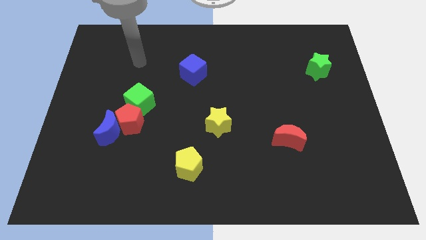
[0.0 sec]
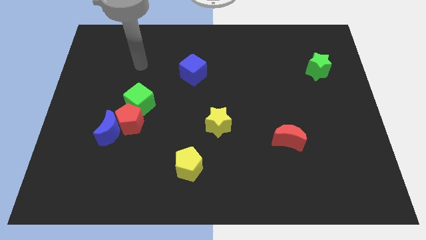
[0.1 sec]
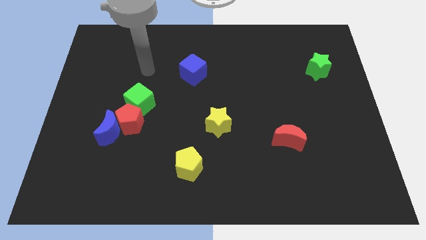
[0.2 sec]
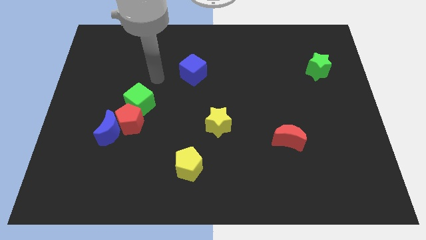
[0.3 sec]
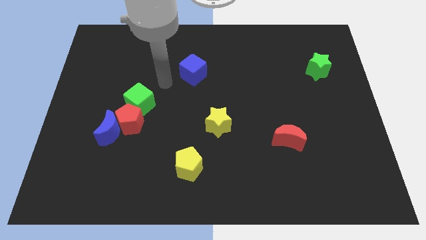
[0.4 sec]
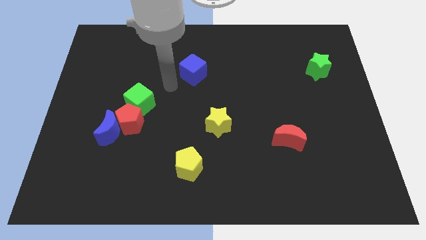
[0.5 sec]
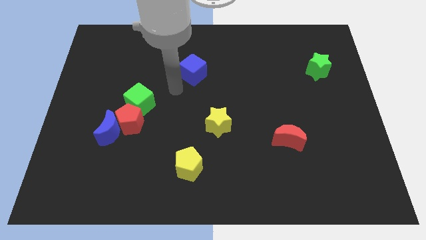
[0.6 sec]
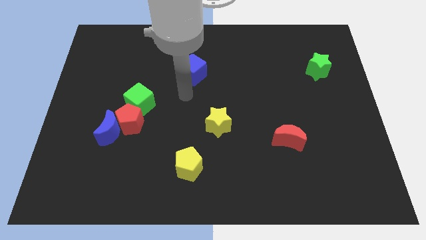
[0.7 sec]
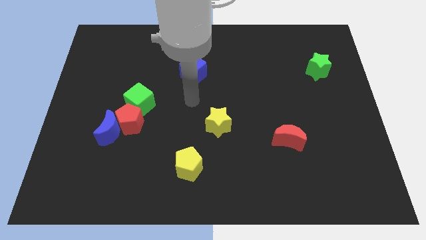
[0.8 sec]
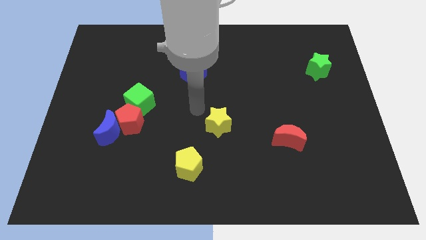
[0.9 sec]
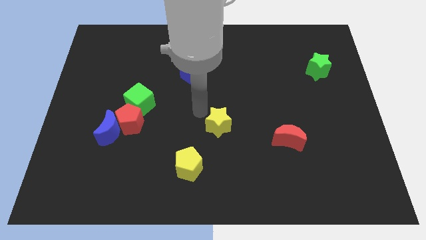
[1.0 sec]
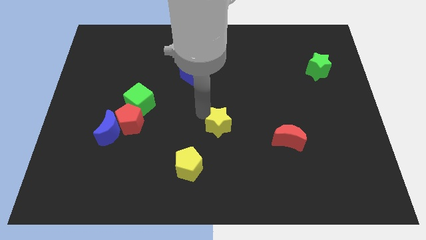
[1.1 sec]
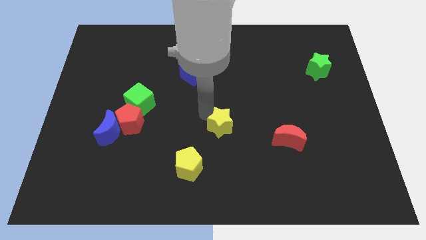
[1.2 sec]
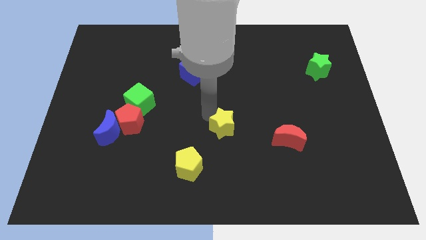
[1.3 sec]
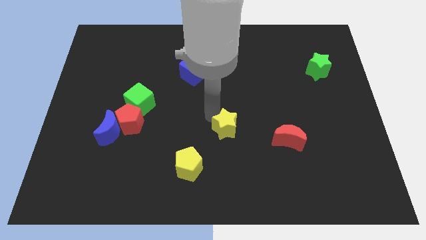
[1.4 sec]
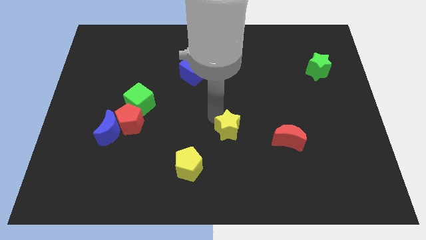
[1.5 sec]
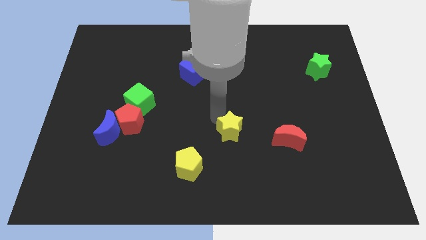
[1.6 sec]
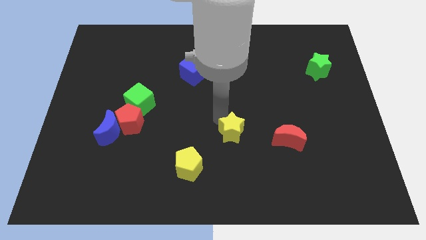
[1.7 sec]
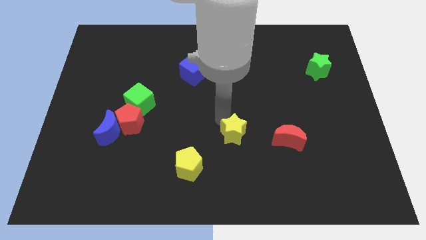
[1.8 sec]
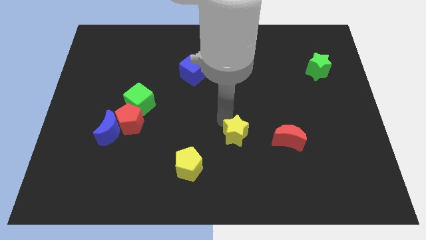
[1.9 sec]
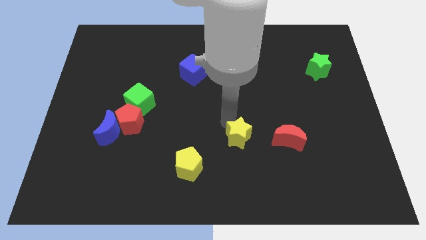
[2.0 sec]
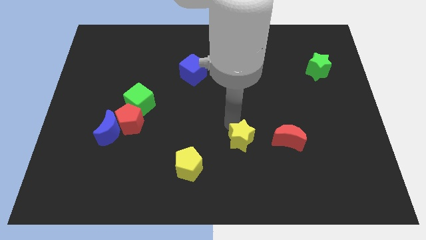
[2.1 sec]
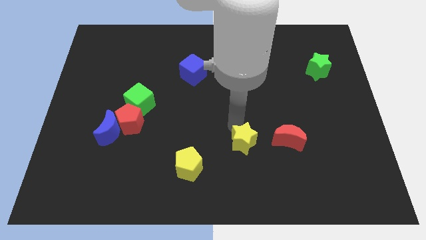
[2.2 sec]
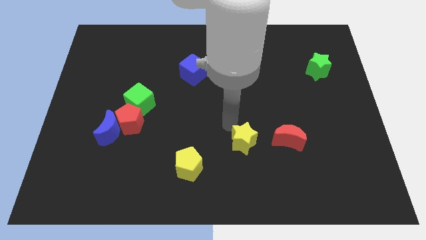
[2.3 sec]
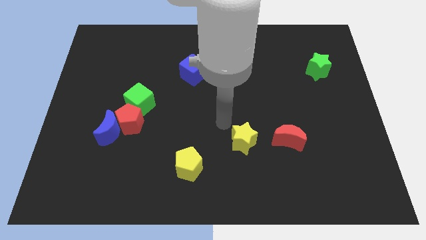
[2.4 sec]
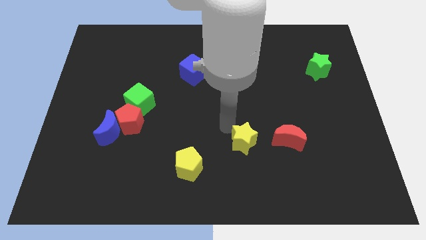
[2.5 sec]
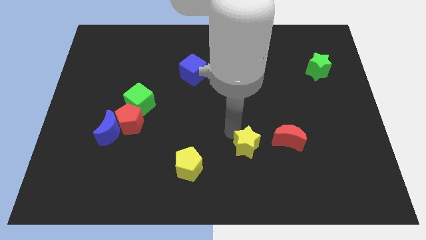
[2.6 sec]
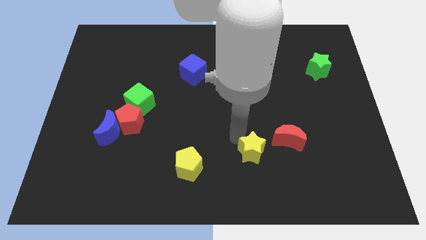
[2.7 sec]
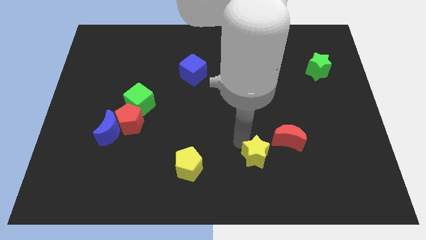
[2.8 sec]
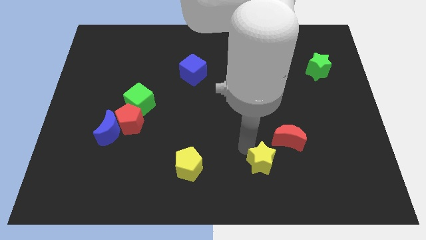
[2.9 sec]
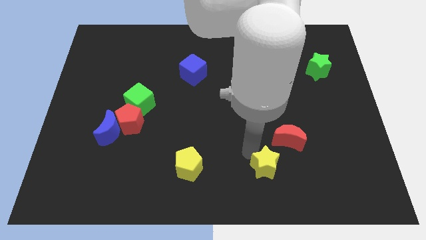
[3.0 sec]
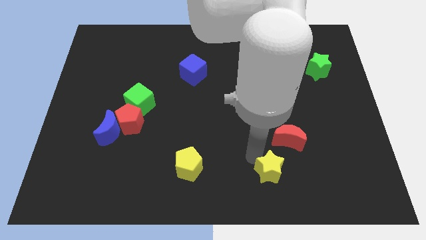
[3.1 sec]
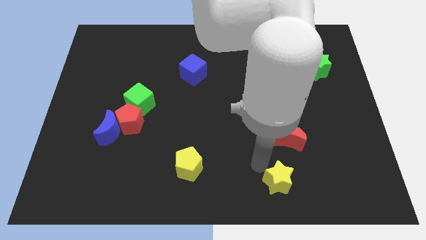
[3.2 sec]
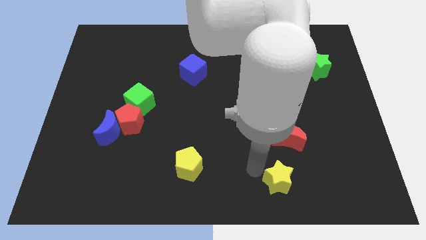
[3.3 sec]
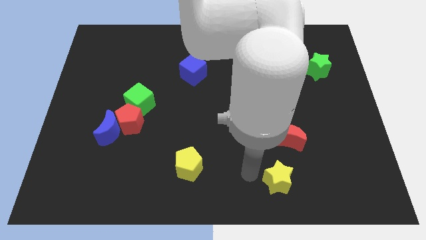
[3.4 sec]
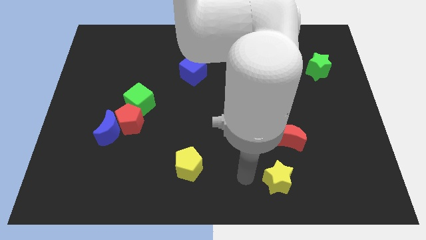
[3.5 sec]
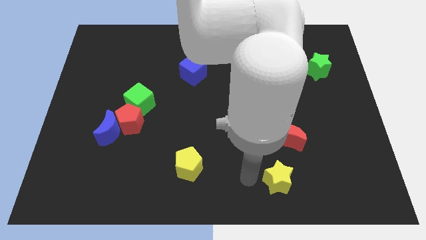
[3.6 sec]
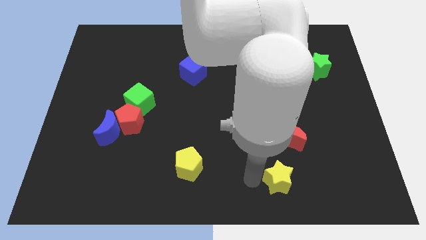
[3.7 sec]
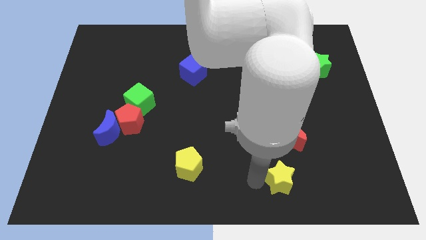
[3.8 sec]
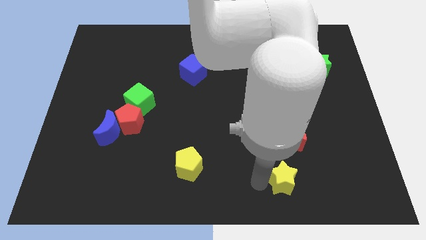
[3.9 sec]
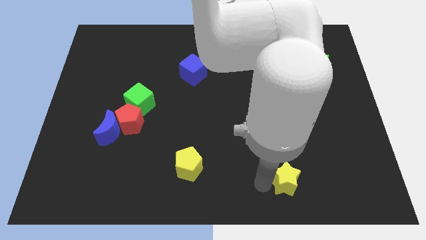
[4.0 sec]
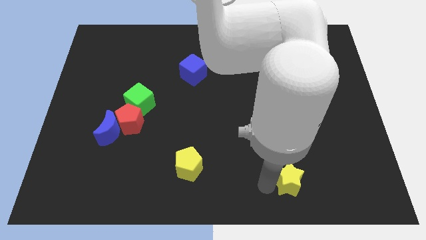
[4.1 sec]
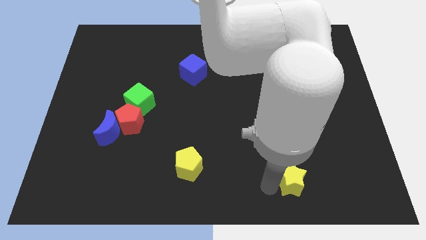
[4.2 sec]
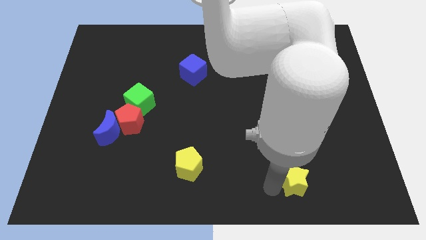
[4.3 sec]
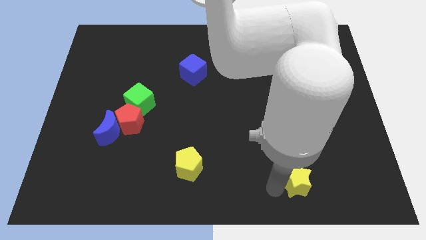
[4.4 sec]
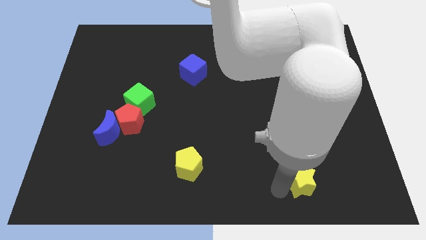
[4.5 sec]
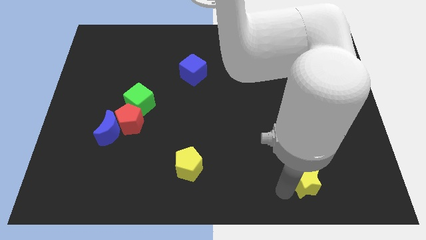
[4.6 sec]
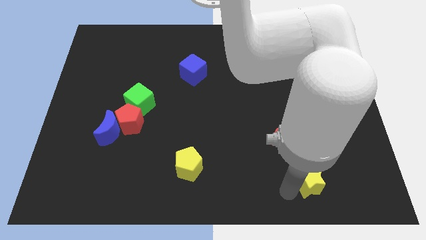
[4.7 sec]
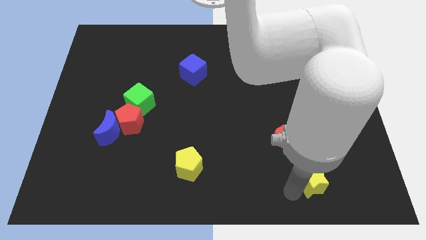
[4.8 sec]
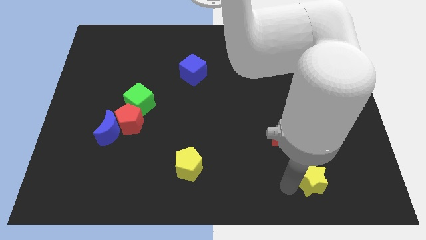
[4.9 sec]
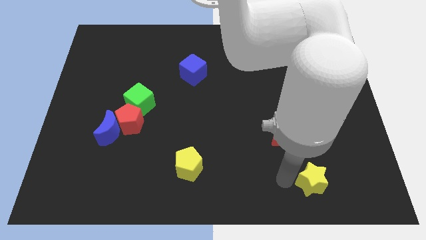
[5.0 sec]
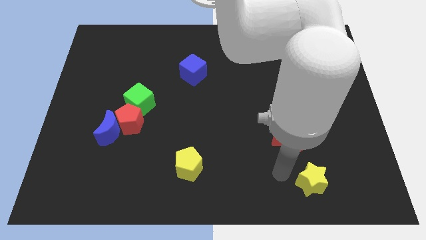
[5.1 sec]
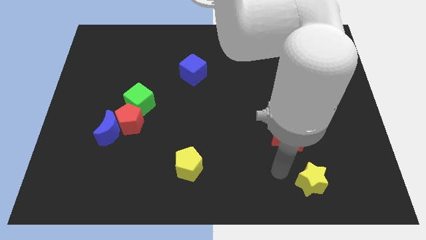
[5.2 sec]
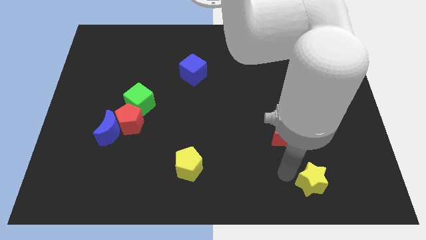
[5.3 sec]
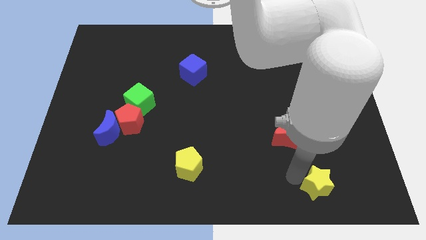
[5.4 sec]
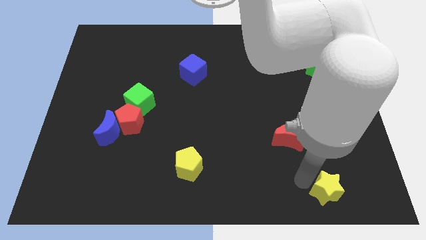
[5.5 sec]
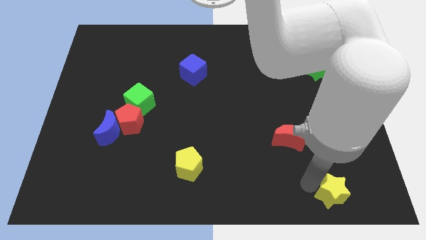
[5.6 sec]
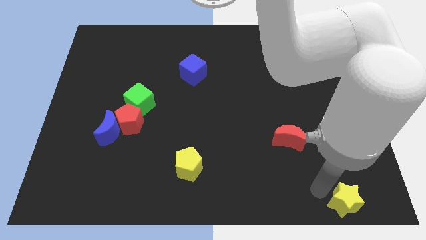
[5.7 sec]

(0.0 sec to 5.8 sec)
slide the yellow star to the bottom right

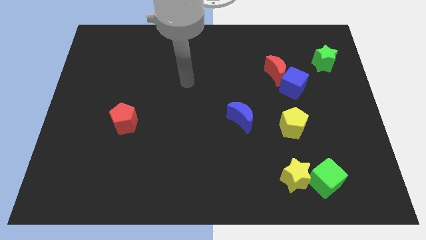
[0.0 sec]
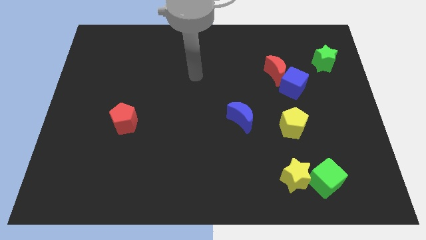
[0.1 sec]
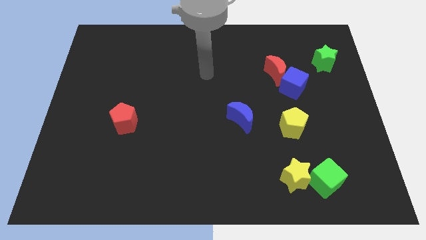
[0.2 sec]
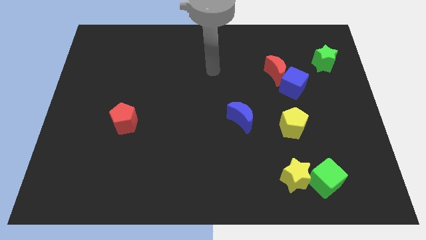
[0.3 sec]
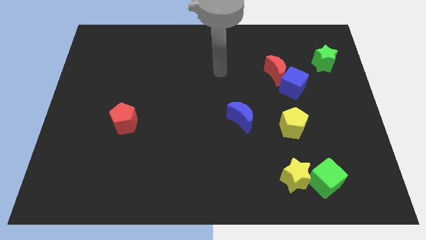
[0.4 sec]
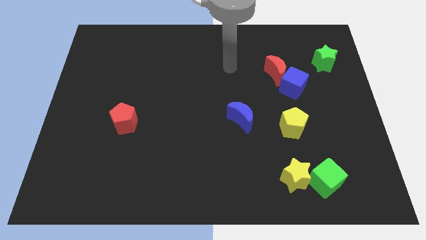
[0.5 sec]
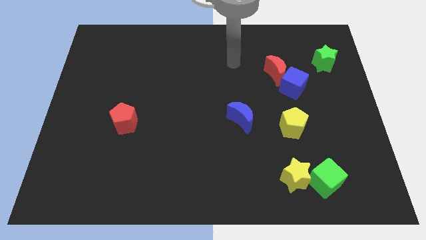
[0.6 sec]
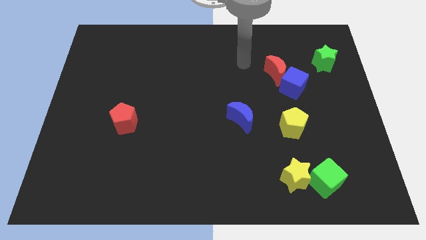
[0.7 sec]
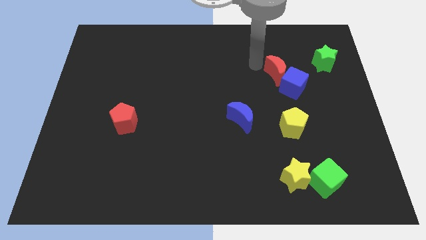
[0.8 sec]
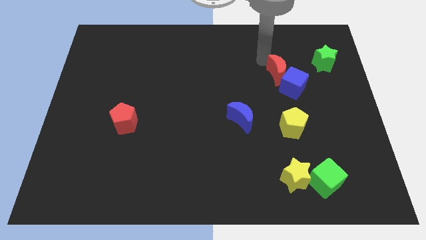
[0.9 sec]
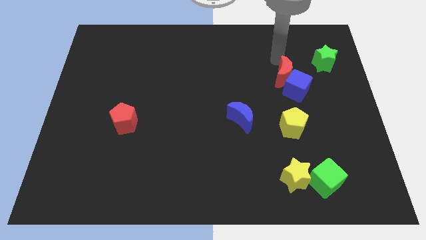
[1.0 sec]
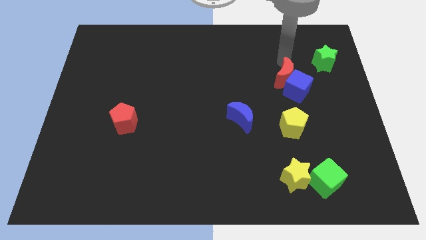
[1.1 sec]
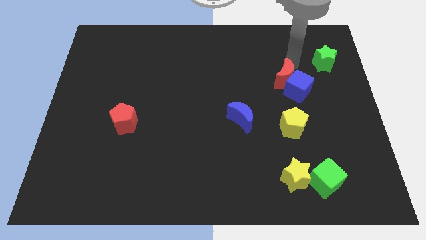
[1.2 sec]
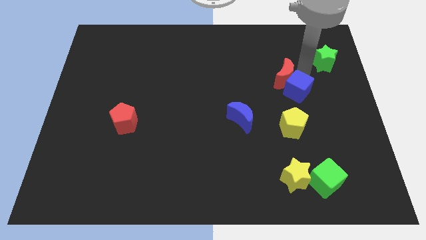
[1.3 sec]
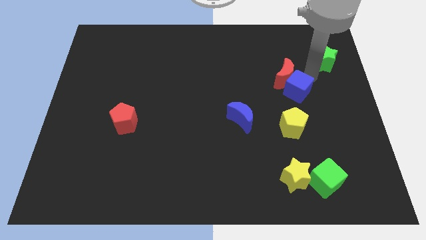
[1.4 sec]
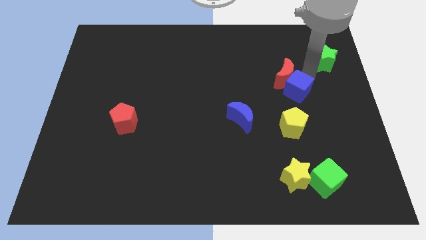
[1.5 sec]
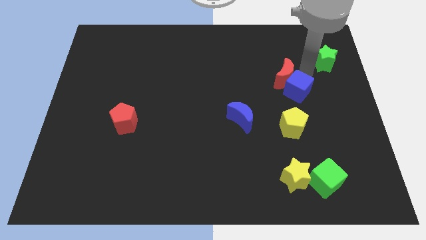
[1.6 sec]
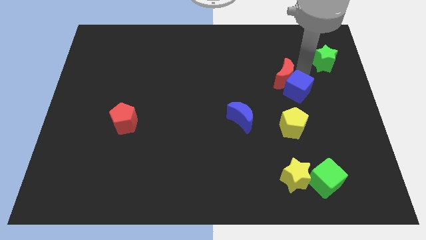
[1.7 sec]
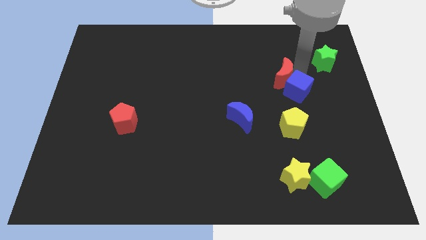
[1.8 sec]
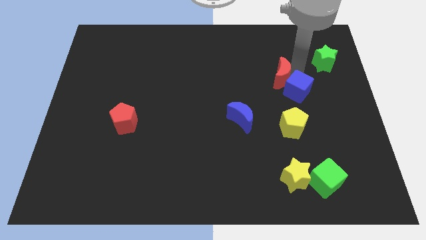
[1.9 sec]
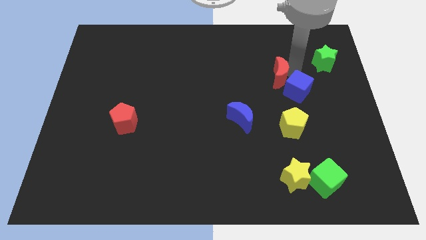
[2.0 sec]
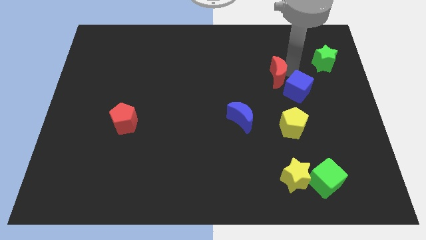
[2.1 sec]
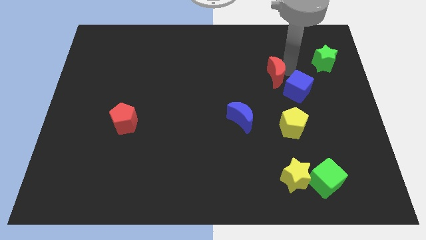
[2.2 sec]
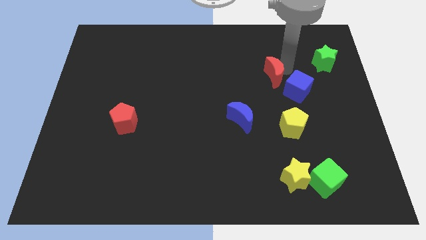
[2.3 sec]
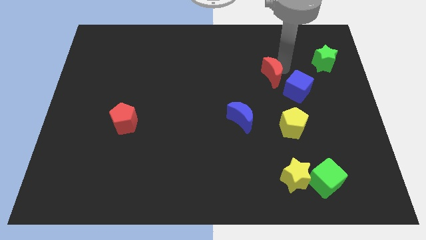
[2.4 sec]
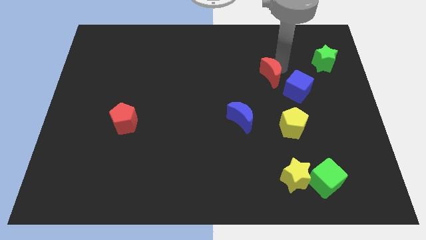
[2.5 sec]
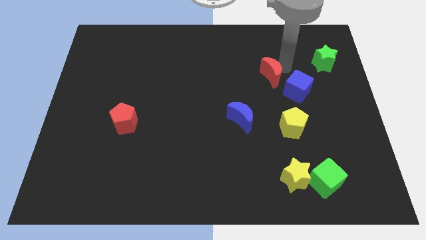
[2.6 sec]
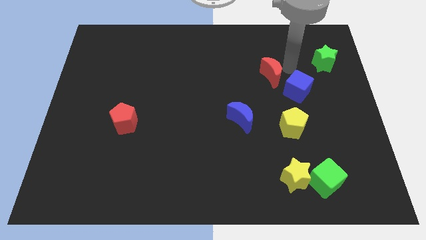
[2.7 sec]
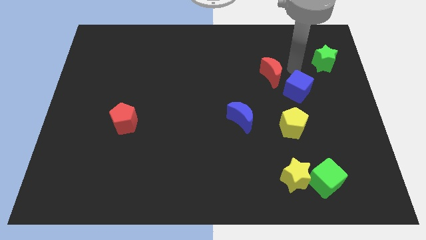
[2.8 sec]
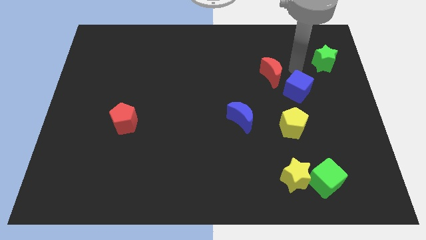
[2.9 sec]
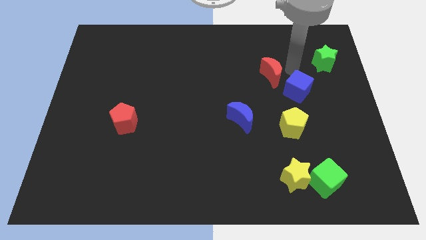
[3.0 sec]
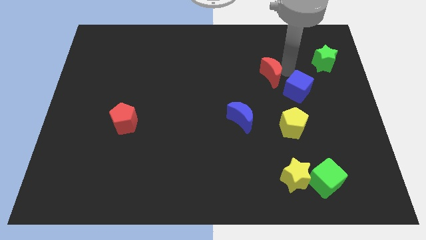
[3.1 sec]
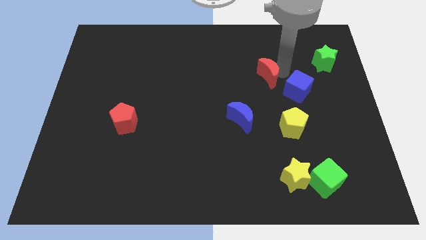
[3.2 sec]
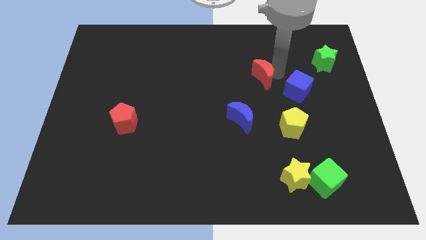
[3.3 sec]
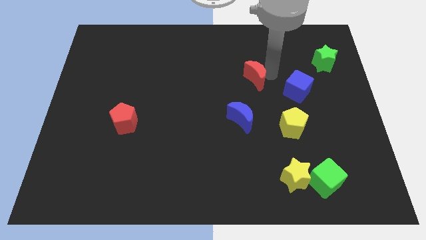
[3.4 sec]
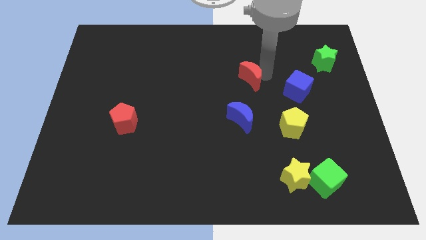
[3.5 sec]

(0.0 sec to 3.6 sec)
push the red moon to the middle
